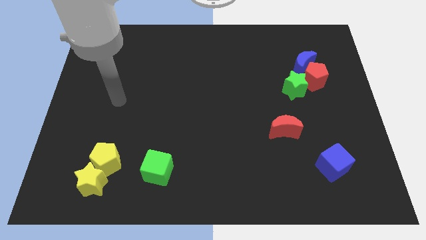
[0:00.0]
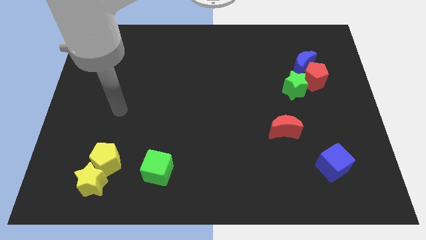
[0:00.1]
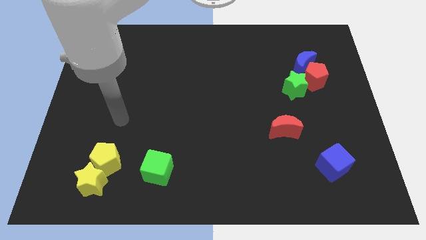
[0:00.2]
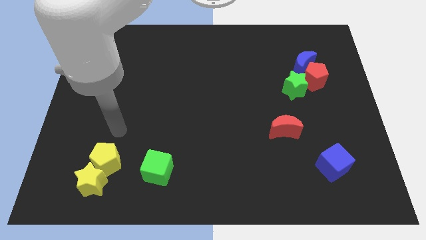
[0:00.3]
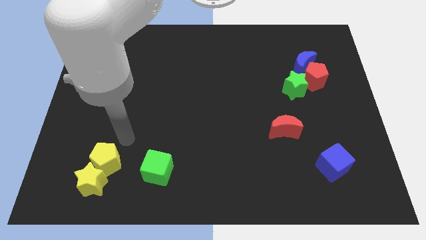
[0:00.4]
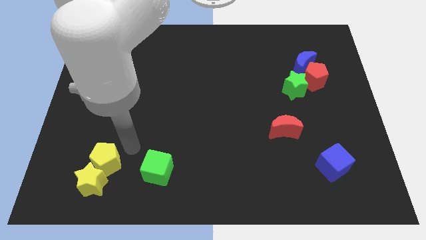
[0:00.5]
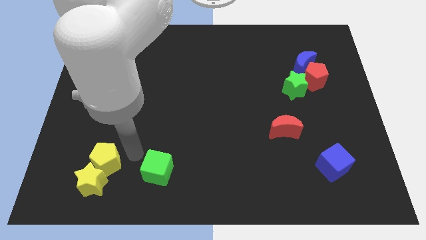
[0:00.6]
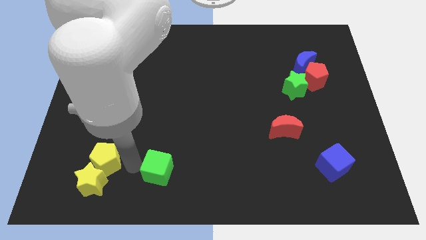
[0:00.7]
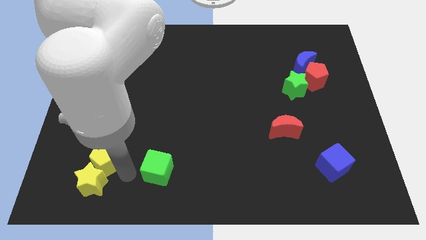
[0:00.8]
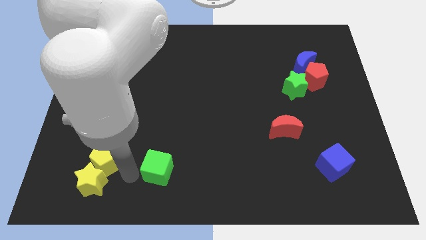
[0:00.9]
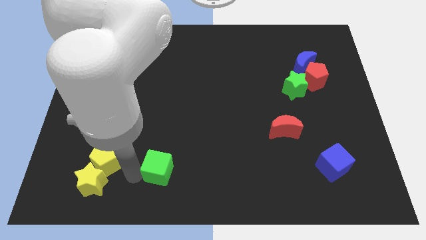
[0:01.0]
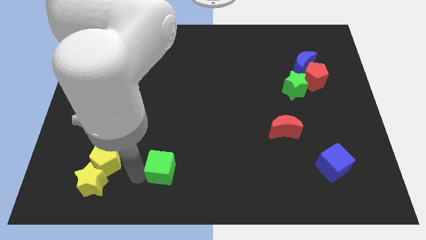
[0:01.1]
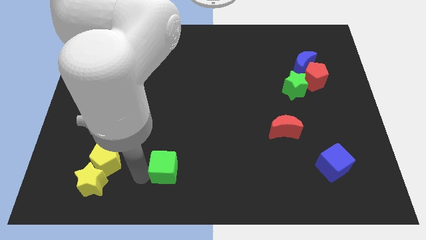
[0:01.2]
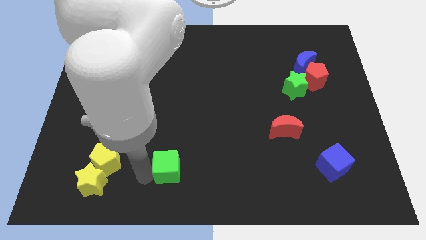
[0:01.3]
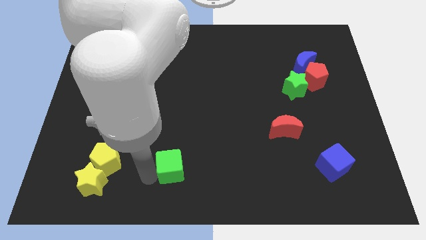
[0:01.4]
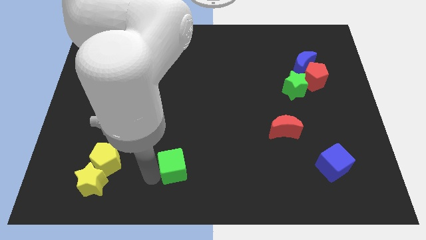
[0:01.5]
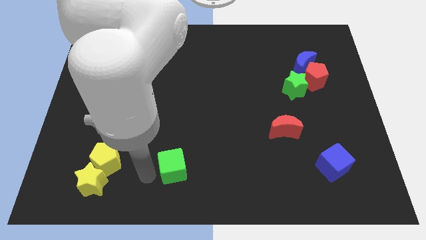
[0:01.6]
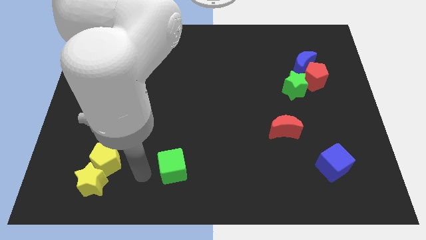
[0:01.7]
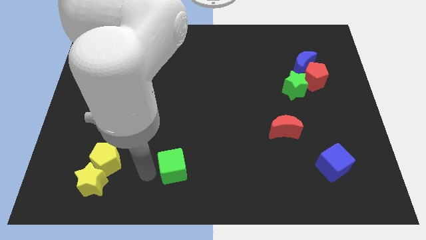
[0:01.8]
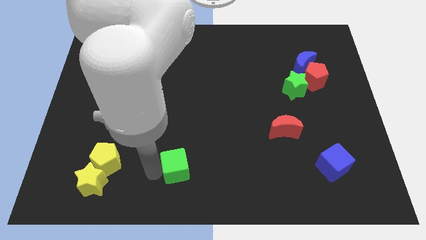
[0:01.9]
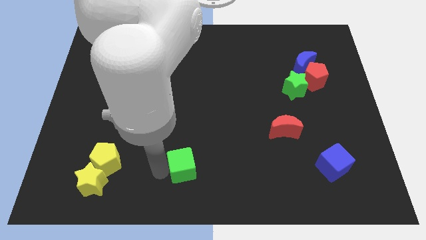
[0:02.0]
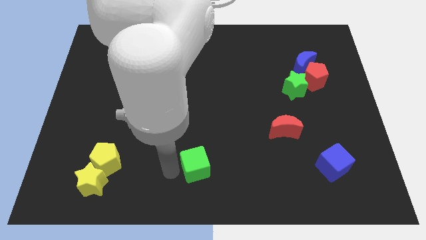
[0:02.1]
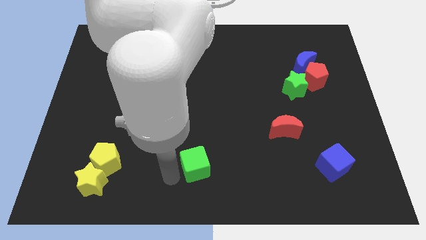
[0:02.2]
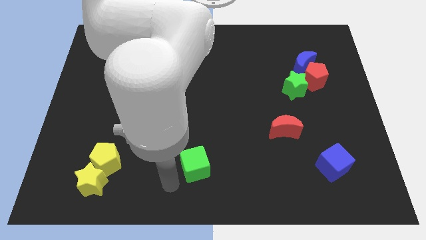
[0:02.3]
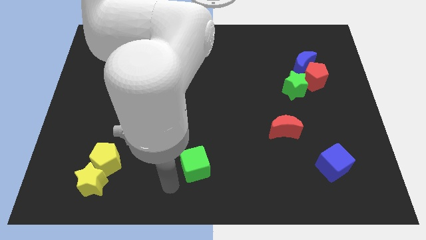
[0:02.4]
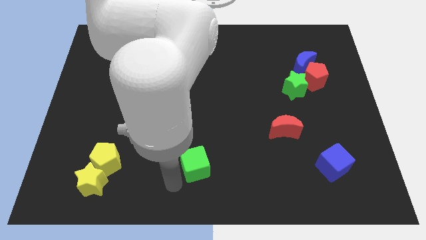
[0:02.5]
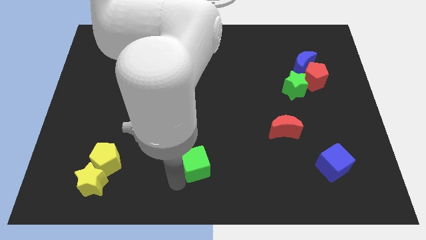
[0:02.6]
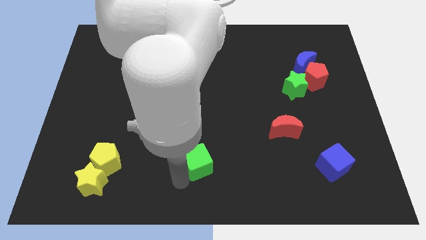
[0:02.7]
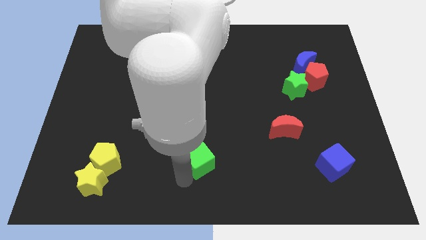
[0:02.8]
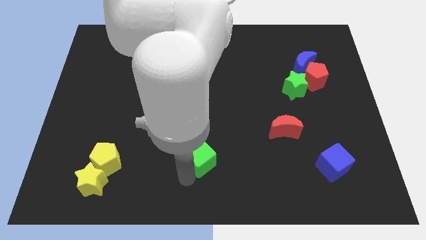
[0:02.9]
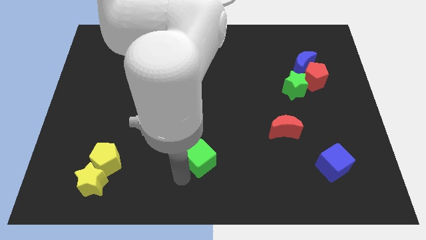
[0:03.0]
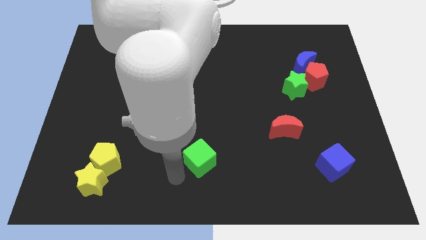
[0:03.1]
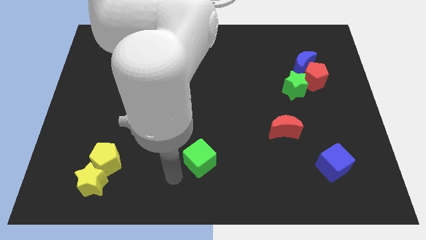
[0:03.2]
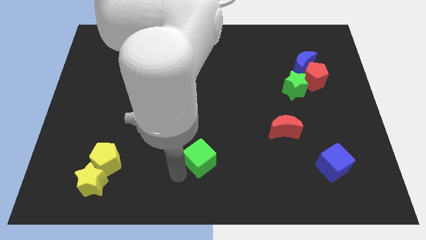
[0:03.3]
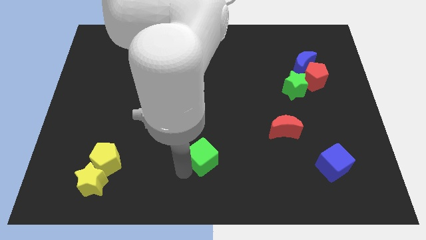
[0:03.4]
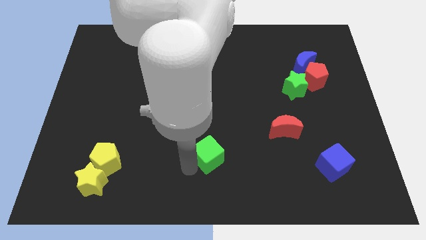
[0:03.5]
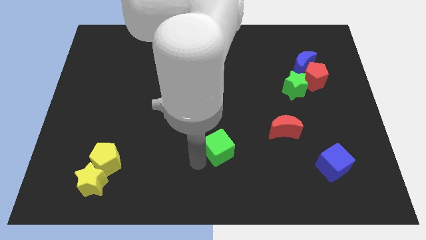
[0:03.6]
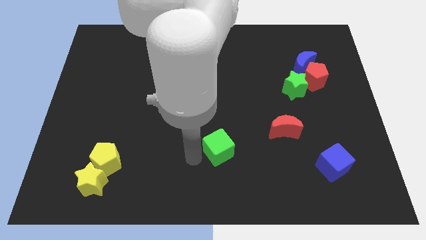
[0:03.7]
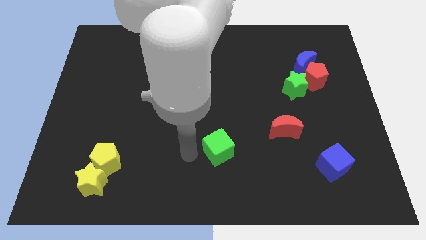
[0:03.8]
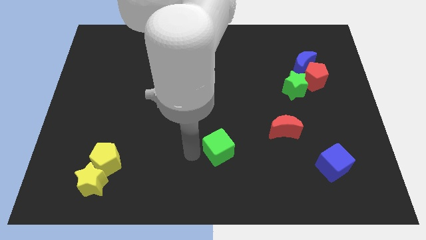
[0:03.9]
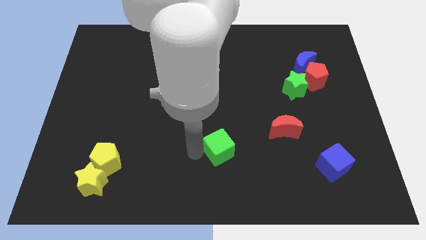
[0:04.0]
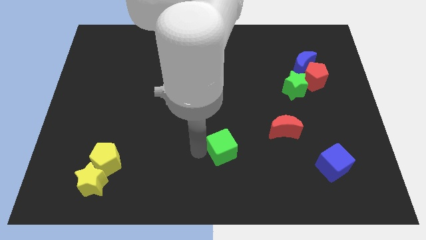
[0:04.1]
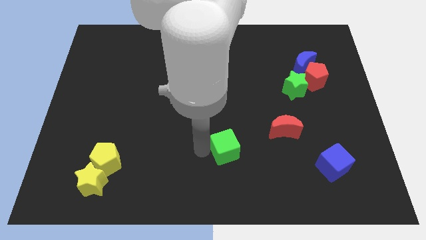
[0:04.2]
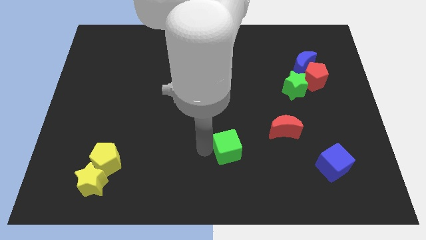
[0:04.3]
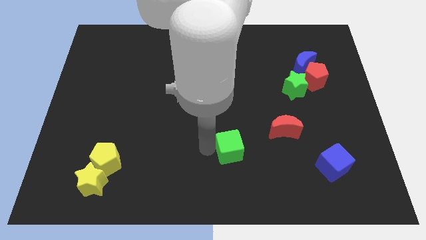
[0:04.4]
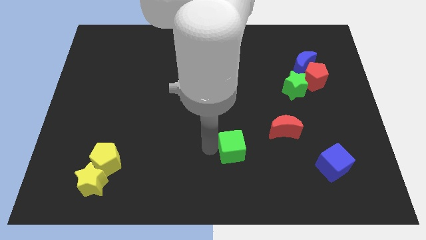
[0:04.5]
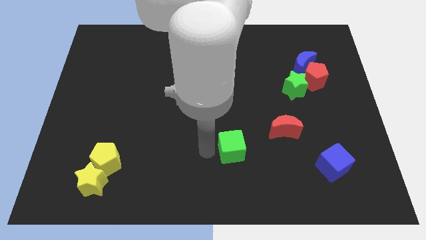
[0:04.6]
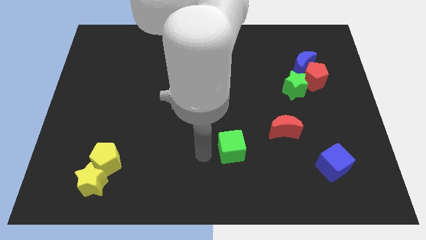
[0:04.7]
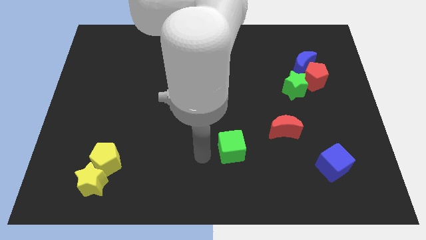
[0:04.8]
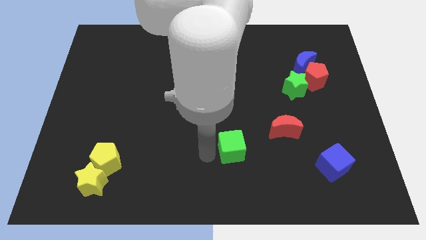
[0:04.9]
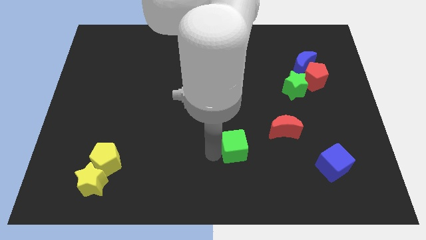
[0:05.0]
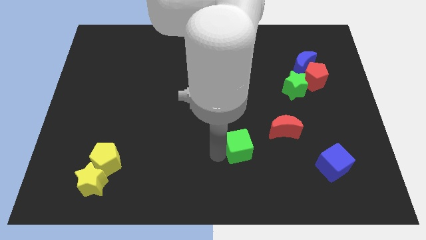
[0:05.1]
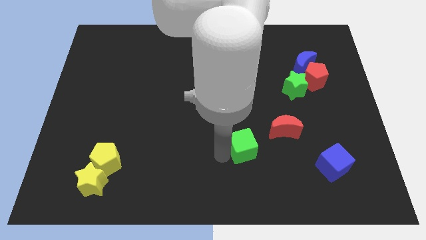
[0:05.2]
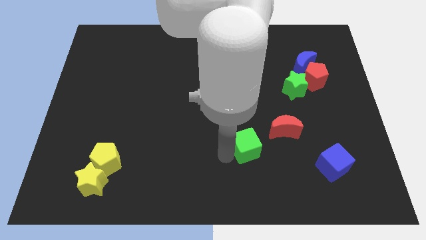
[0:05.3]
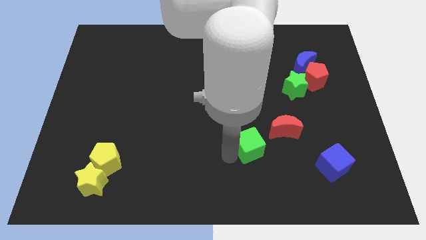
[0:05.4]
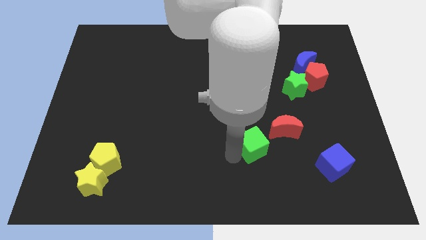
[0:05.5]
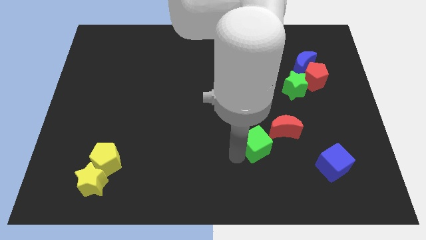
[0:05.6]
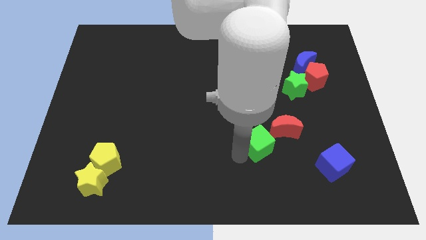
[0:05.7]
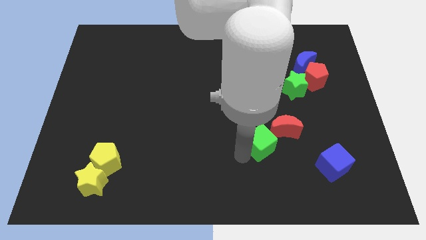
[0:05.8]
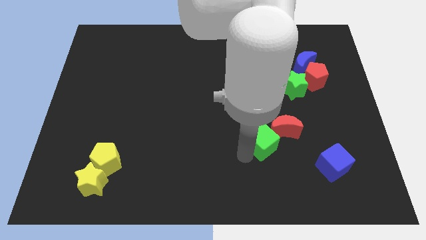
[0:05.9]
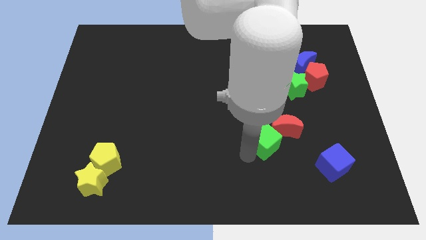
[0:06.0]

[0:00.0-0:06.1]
move the green cube to the red moon

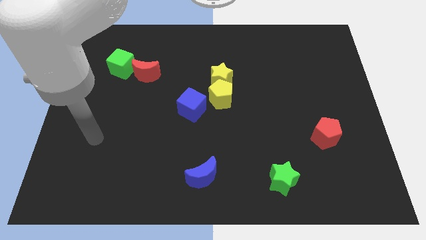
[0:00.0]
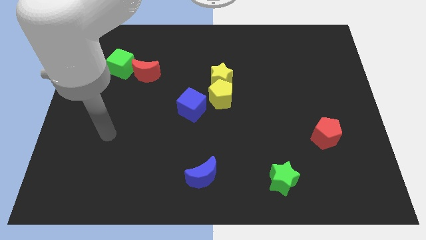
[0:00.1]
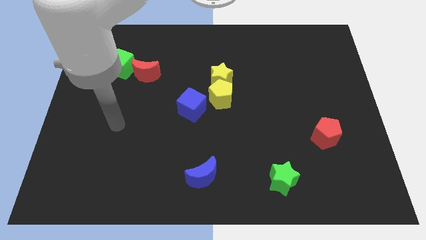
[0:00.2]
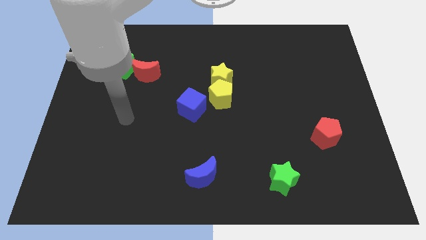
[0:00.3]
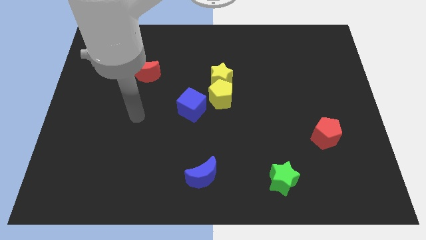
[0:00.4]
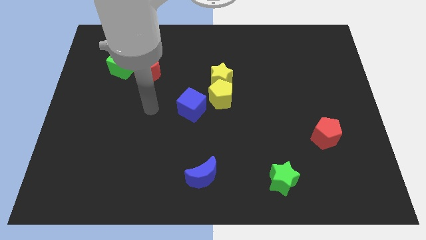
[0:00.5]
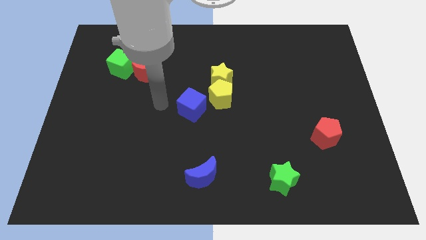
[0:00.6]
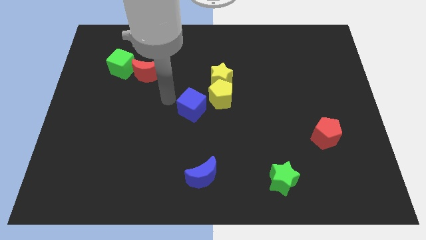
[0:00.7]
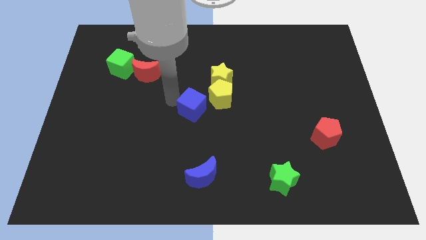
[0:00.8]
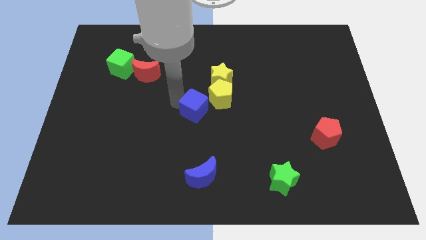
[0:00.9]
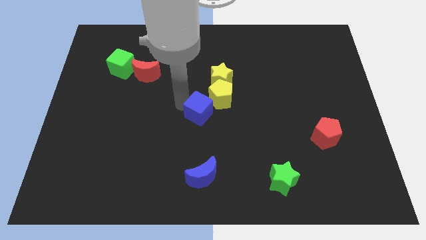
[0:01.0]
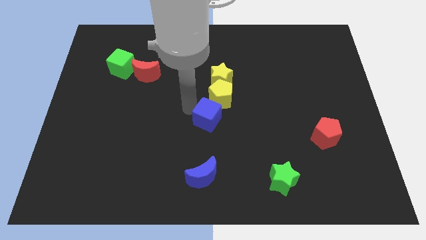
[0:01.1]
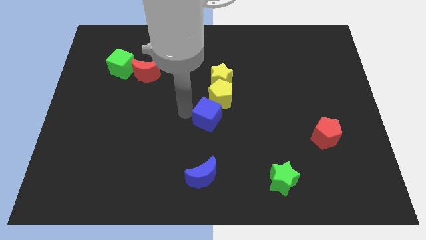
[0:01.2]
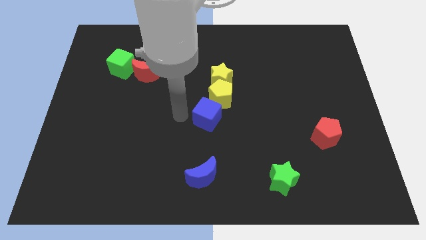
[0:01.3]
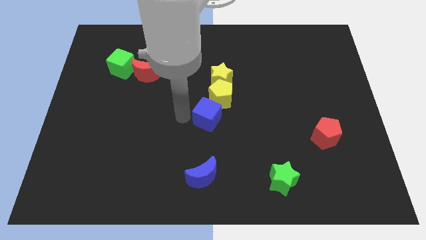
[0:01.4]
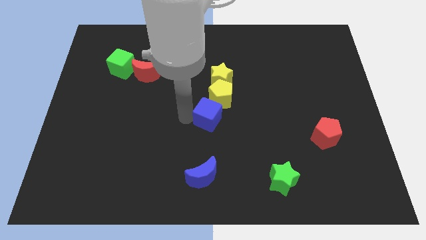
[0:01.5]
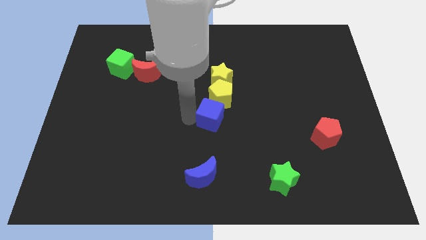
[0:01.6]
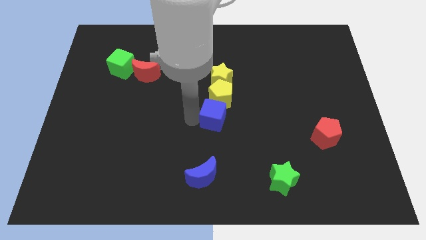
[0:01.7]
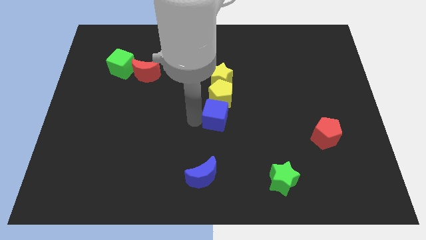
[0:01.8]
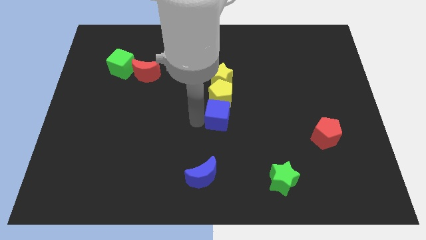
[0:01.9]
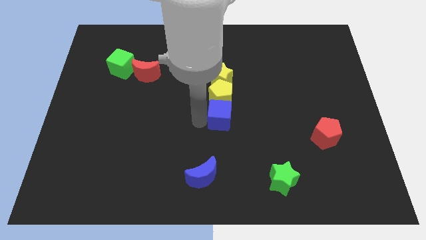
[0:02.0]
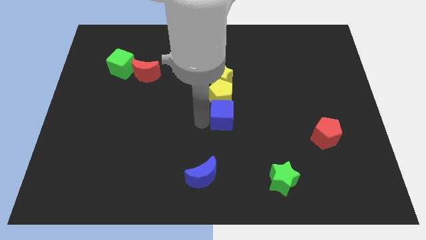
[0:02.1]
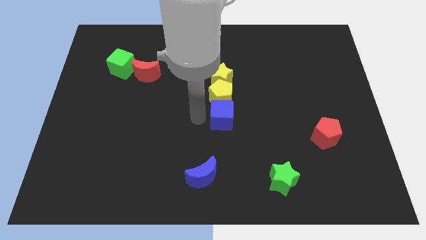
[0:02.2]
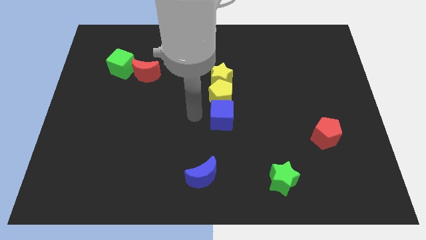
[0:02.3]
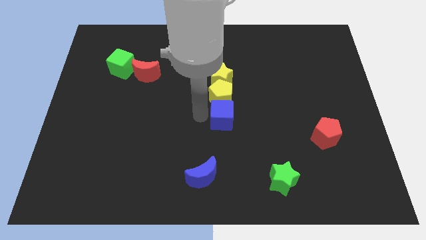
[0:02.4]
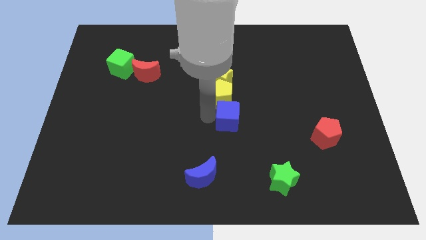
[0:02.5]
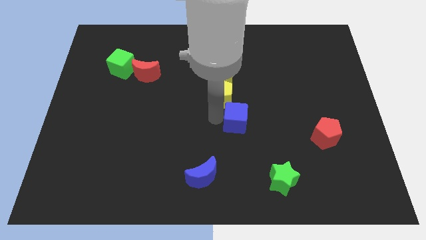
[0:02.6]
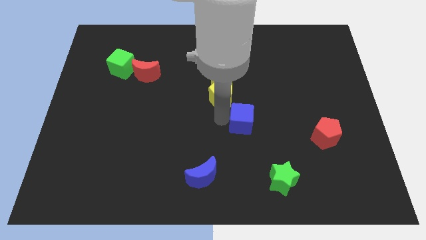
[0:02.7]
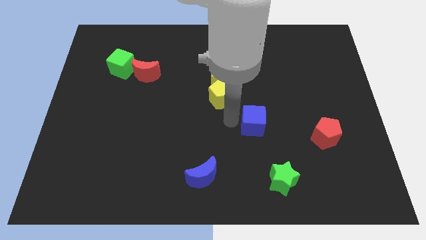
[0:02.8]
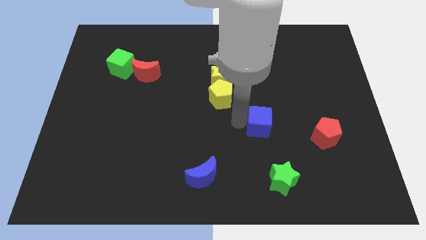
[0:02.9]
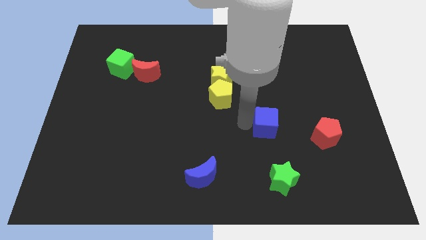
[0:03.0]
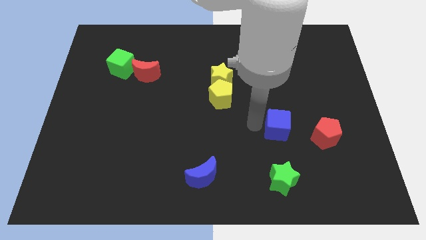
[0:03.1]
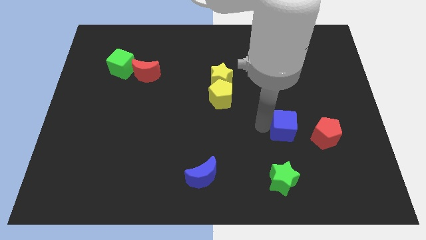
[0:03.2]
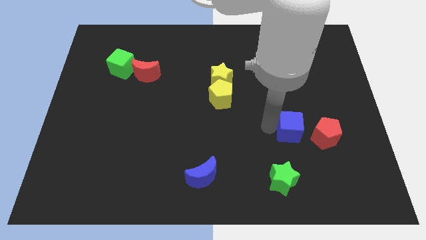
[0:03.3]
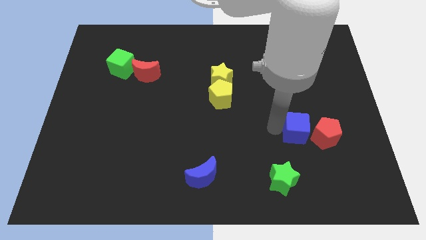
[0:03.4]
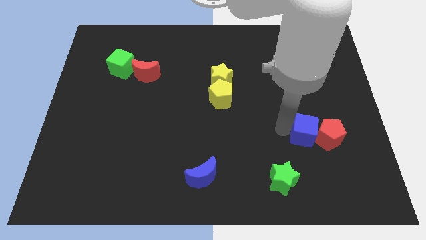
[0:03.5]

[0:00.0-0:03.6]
put the blue cube to the red pentagon
